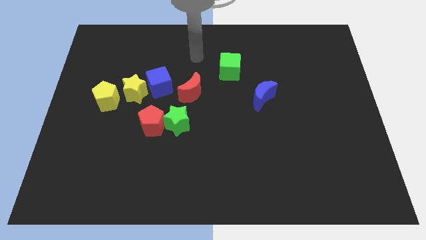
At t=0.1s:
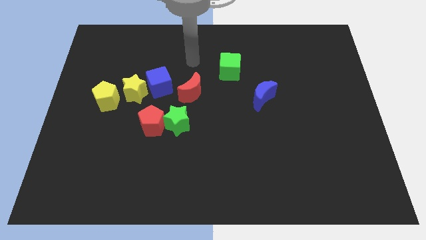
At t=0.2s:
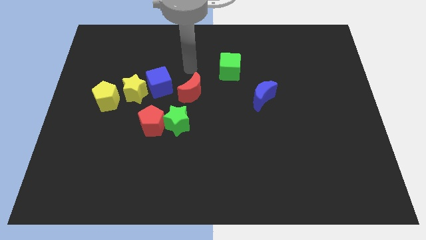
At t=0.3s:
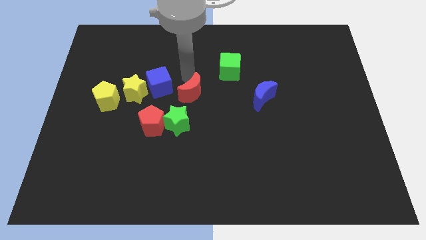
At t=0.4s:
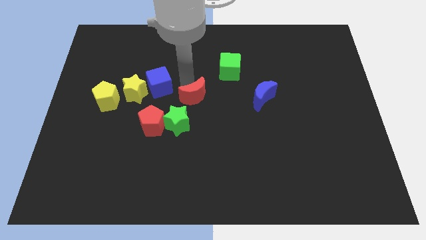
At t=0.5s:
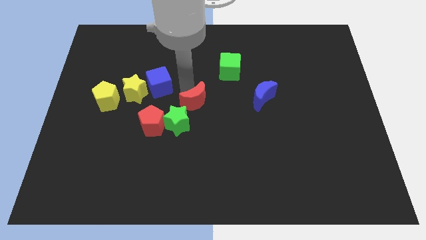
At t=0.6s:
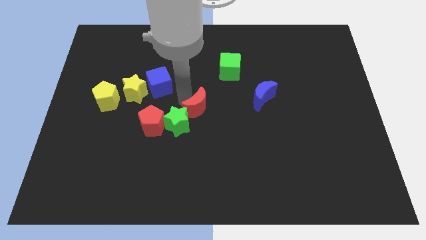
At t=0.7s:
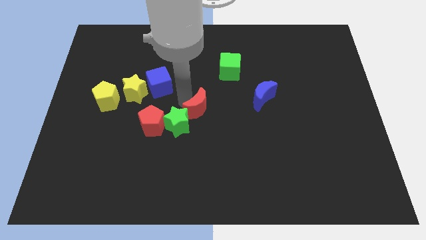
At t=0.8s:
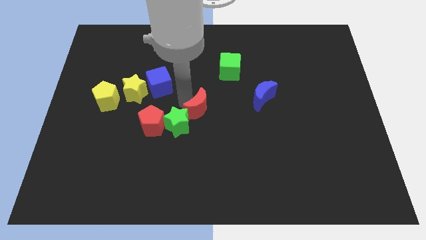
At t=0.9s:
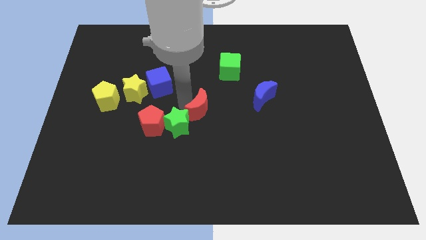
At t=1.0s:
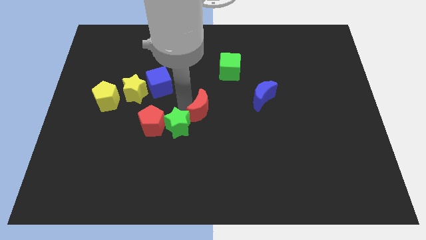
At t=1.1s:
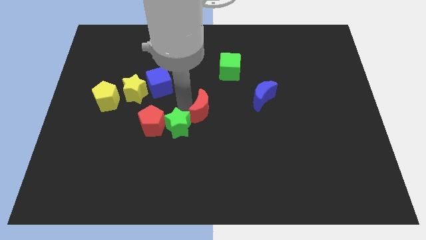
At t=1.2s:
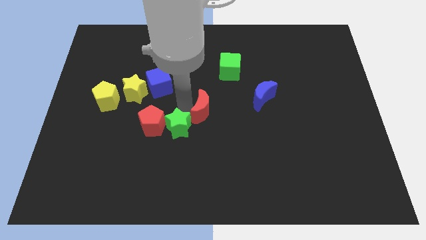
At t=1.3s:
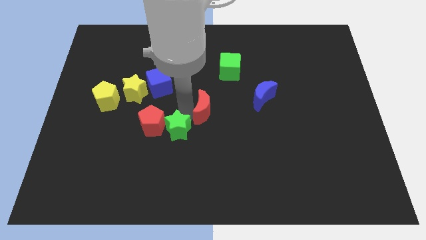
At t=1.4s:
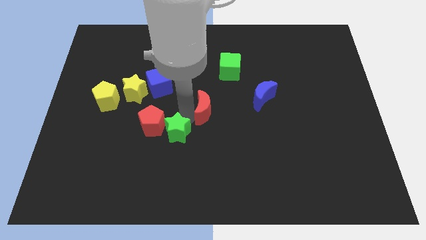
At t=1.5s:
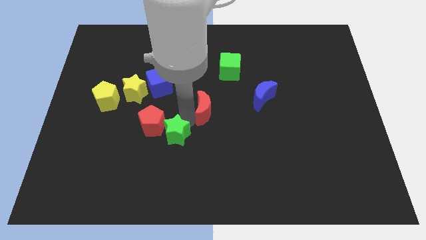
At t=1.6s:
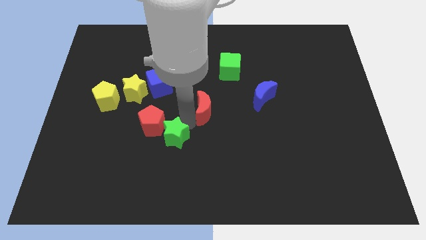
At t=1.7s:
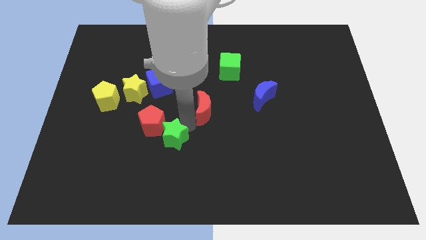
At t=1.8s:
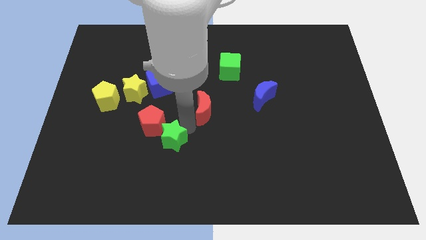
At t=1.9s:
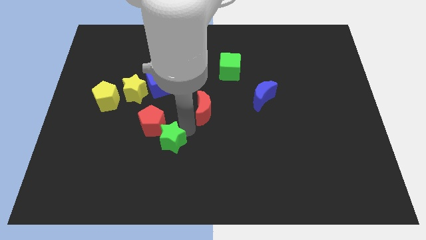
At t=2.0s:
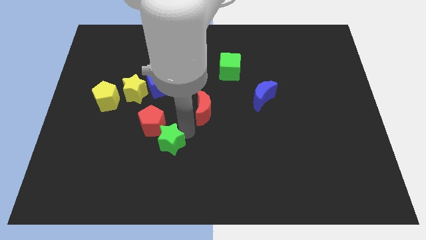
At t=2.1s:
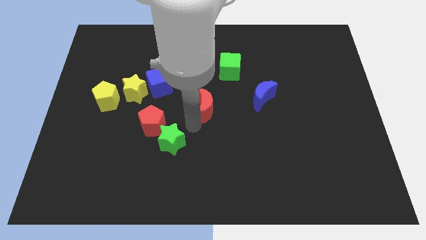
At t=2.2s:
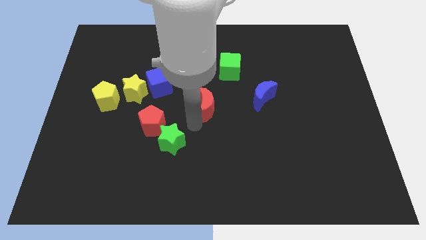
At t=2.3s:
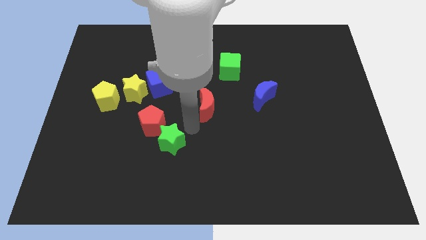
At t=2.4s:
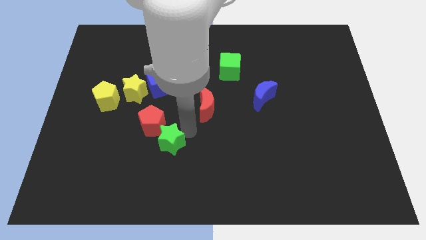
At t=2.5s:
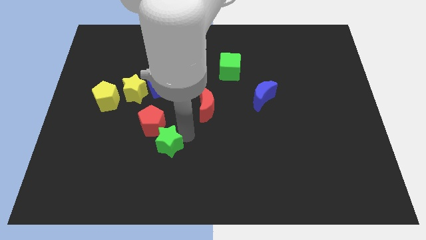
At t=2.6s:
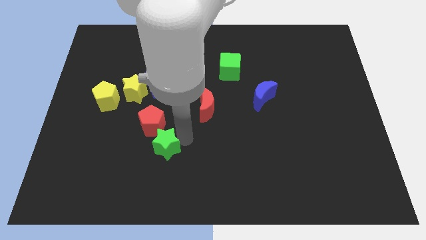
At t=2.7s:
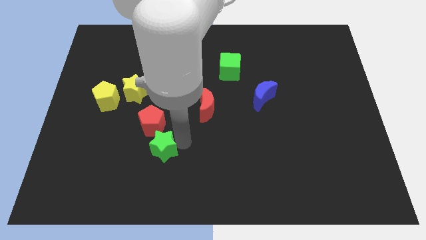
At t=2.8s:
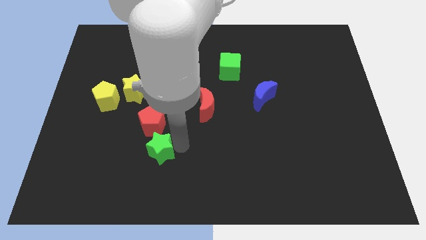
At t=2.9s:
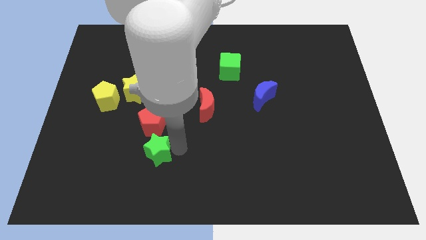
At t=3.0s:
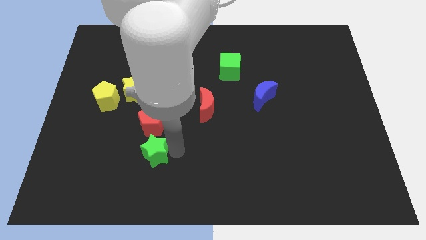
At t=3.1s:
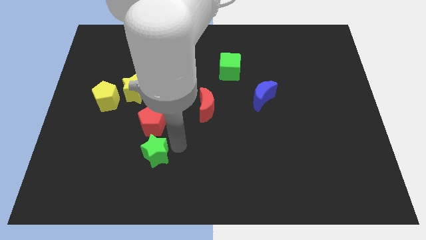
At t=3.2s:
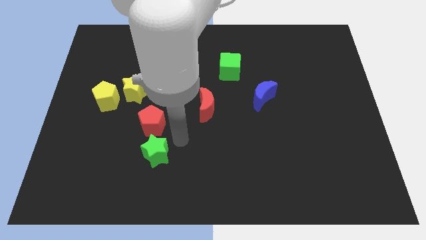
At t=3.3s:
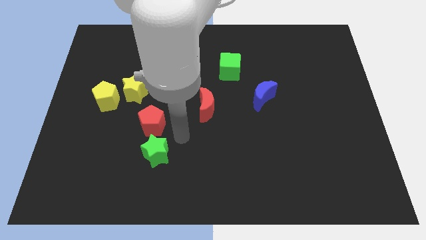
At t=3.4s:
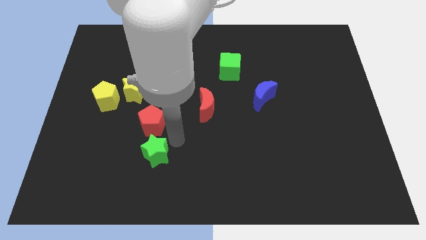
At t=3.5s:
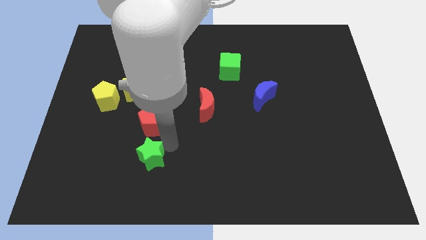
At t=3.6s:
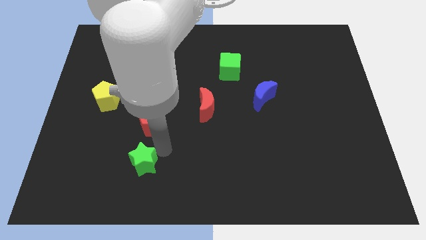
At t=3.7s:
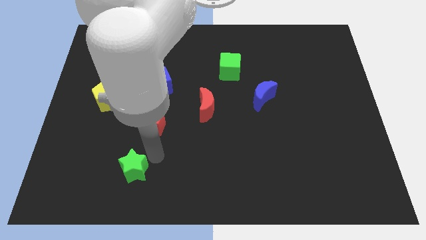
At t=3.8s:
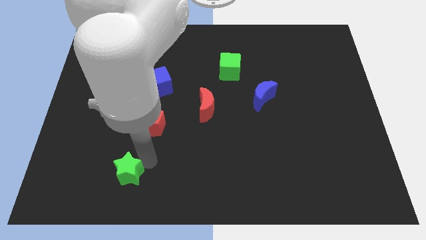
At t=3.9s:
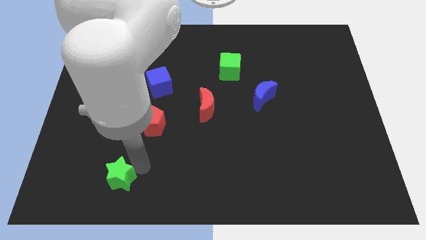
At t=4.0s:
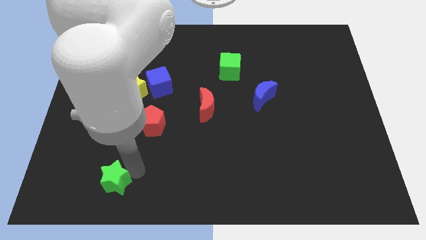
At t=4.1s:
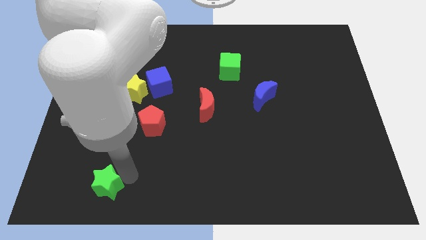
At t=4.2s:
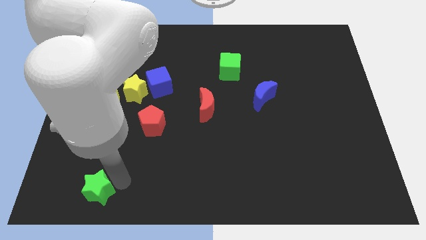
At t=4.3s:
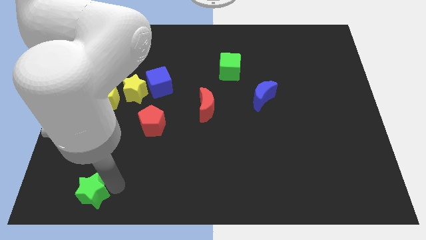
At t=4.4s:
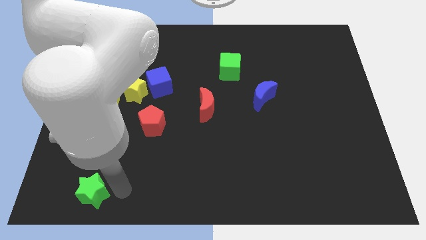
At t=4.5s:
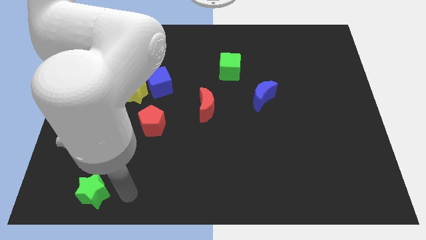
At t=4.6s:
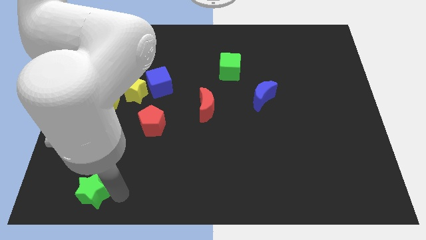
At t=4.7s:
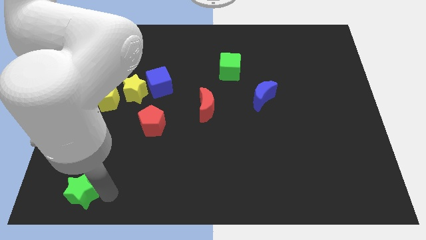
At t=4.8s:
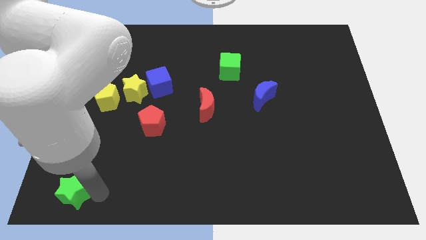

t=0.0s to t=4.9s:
move the green star to the bottom left corner

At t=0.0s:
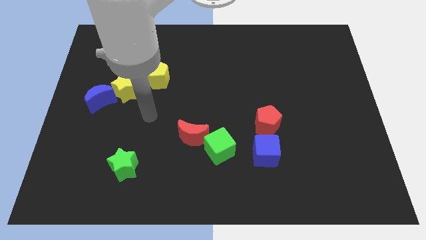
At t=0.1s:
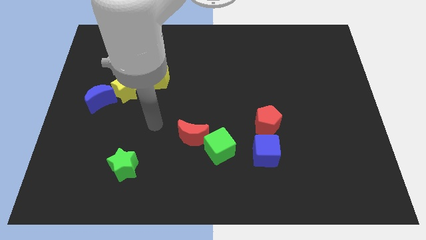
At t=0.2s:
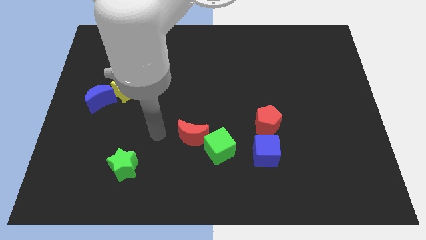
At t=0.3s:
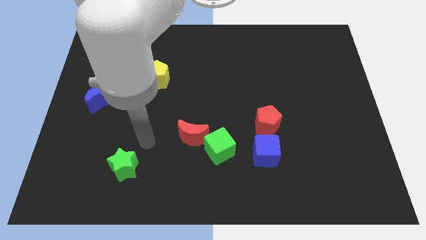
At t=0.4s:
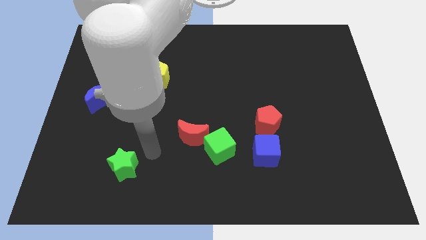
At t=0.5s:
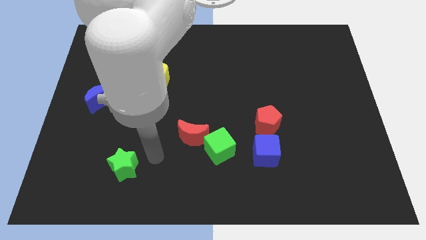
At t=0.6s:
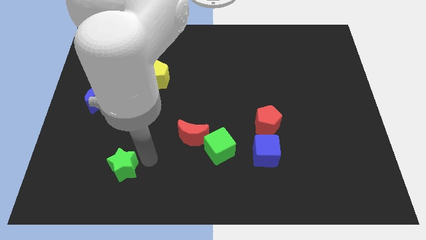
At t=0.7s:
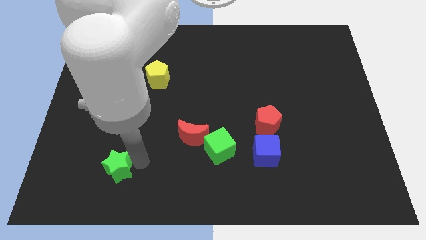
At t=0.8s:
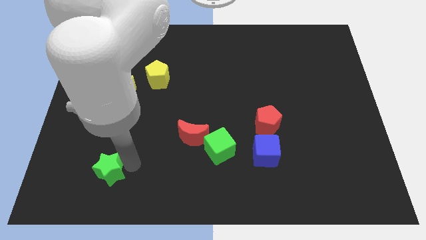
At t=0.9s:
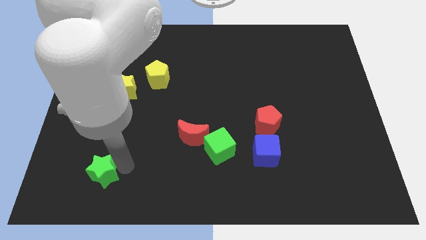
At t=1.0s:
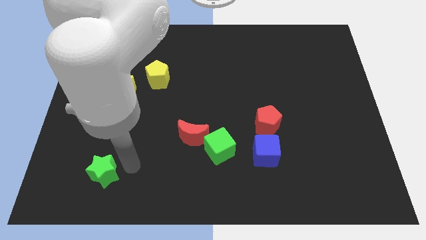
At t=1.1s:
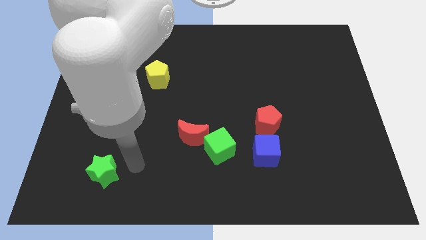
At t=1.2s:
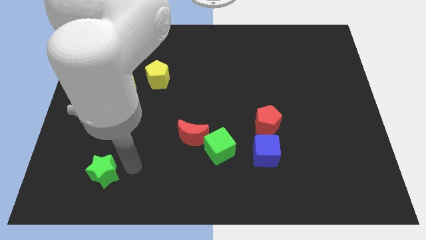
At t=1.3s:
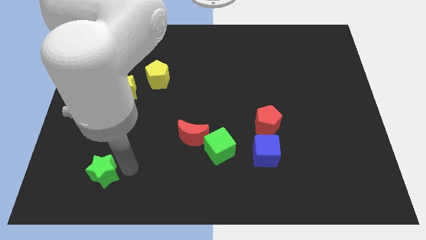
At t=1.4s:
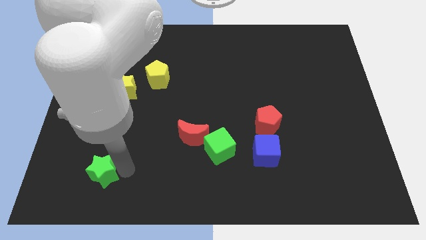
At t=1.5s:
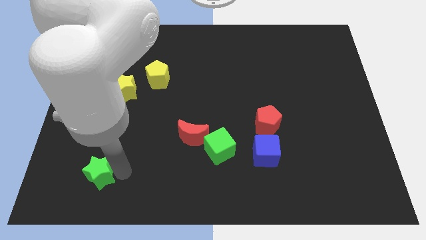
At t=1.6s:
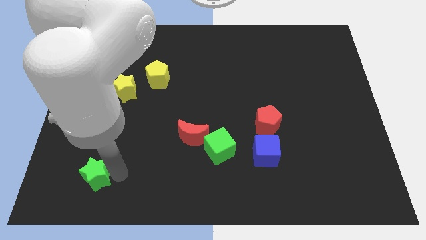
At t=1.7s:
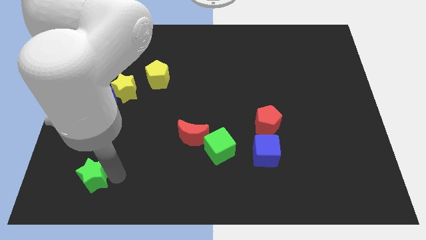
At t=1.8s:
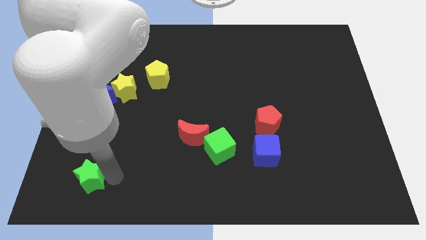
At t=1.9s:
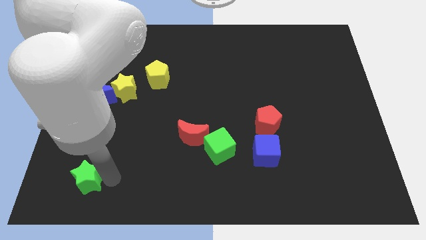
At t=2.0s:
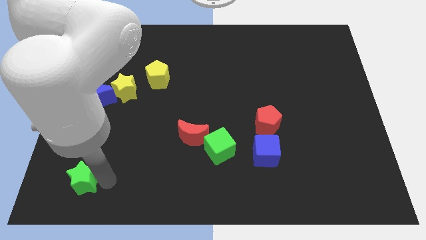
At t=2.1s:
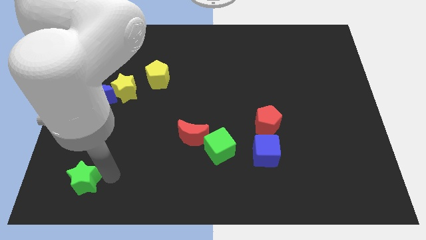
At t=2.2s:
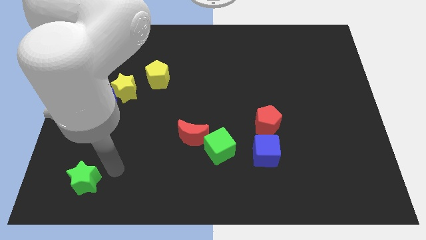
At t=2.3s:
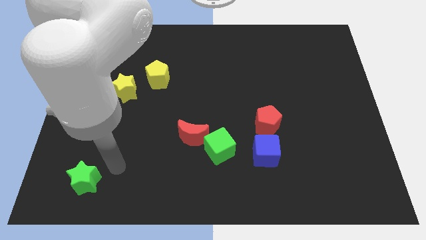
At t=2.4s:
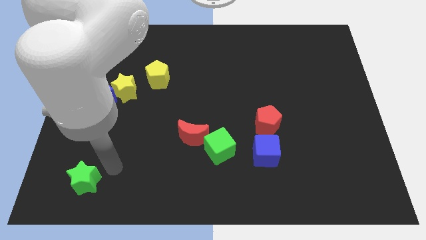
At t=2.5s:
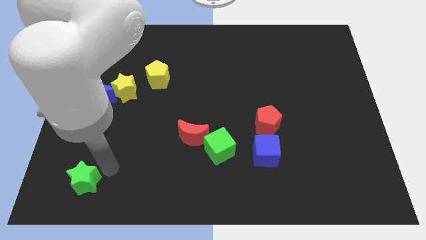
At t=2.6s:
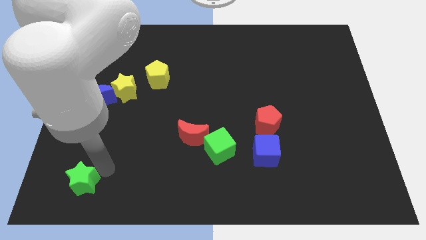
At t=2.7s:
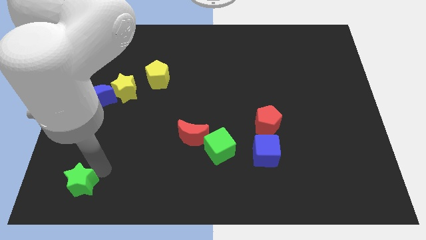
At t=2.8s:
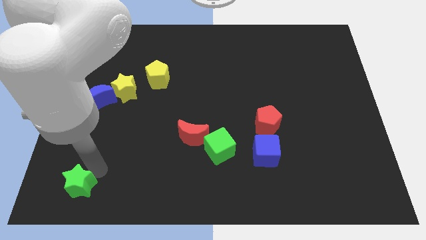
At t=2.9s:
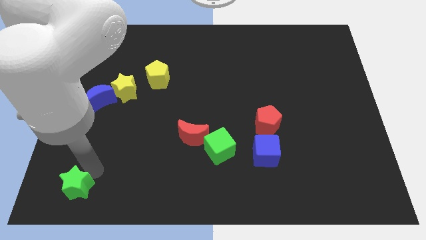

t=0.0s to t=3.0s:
put the green star to the bottom left of the board
